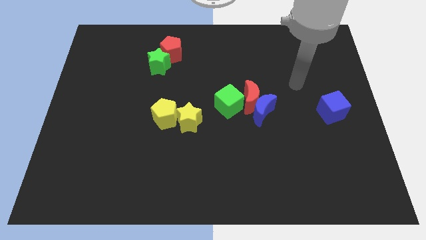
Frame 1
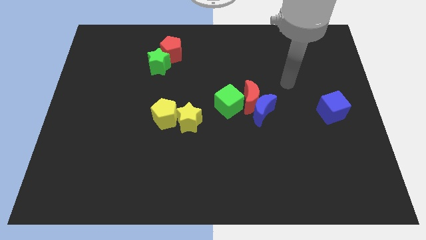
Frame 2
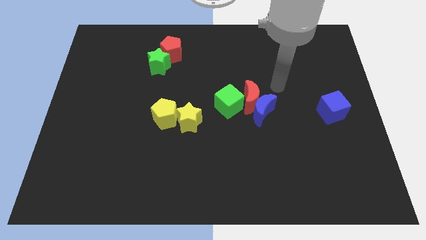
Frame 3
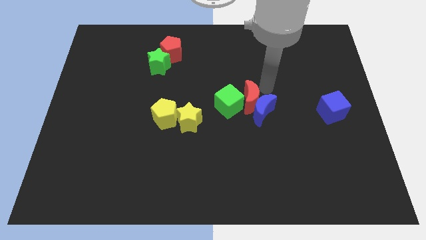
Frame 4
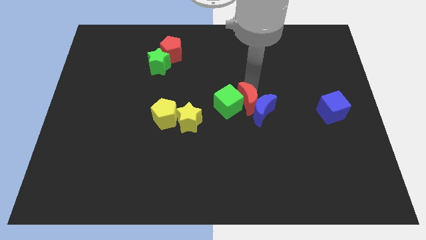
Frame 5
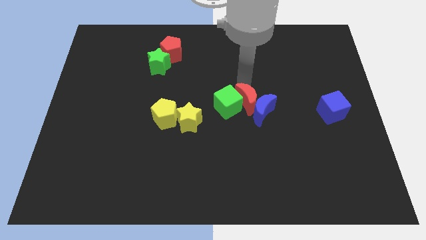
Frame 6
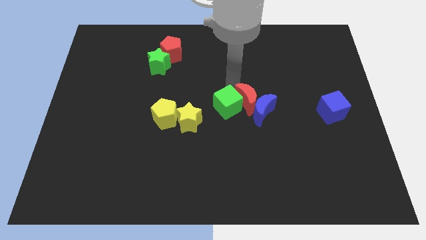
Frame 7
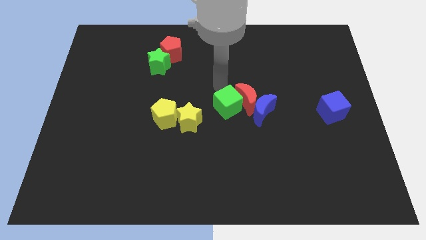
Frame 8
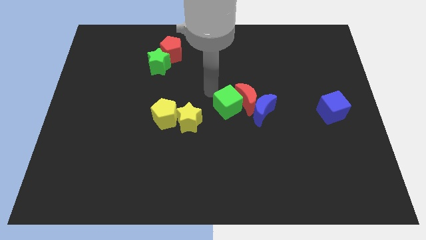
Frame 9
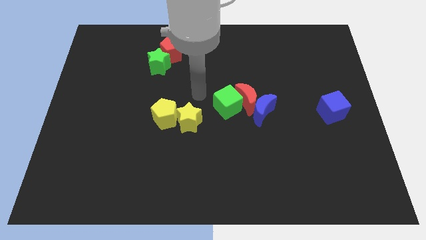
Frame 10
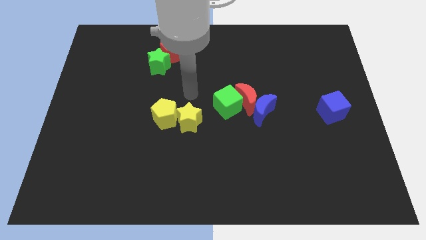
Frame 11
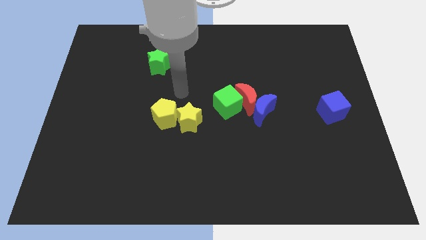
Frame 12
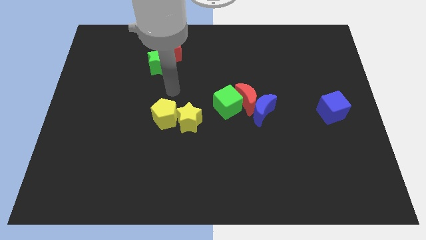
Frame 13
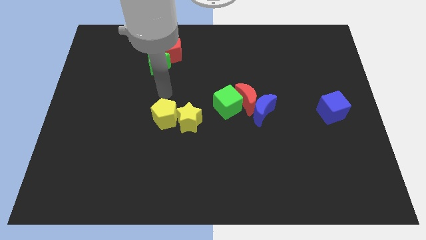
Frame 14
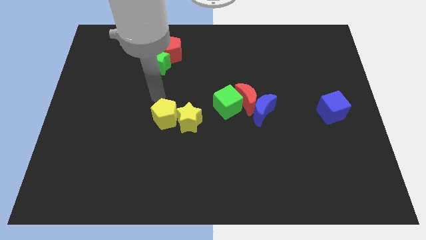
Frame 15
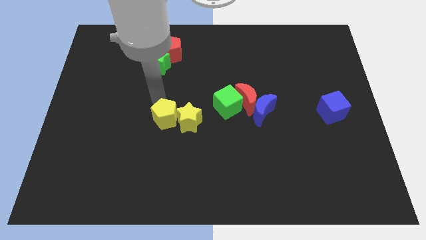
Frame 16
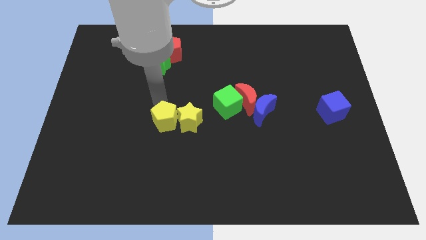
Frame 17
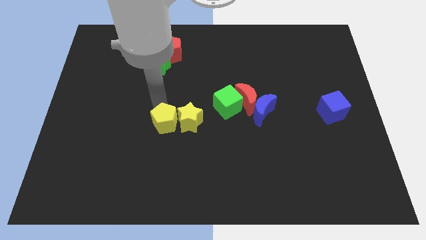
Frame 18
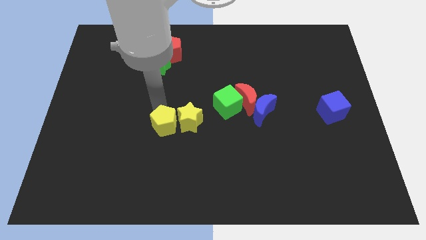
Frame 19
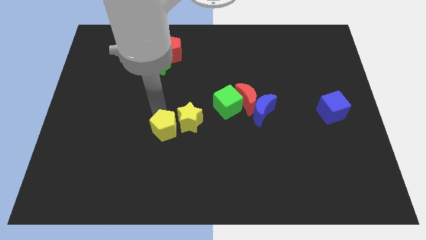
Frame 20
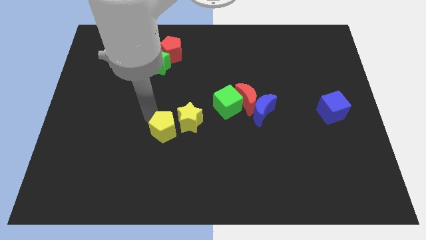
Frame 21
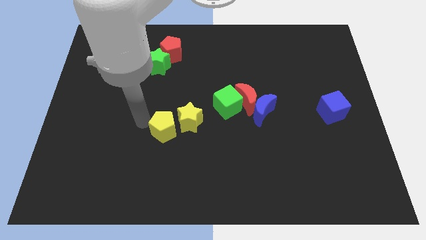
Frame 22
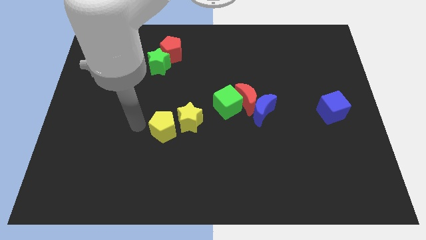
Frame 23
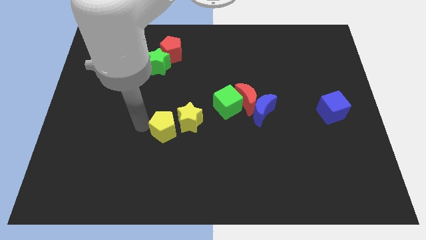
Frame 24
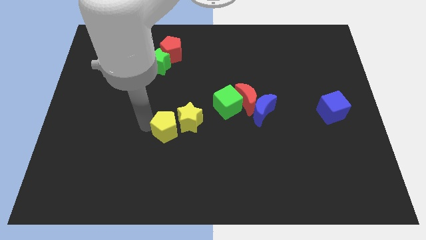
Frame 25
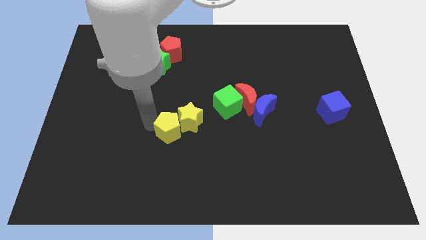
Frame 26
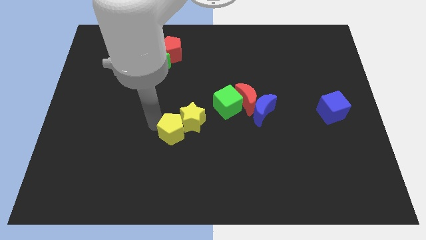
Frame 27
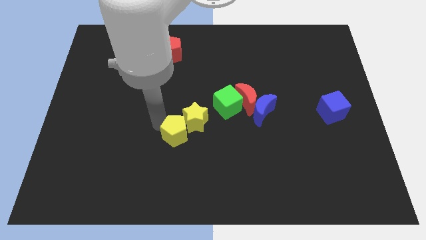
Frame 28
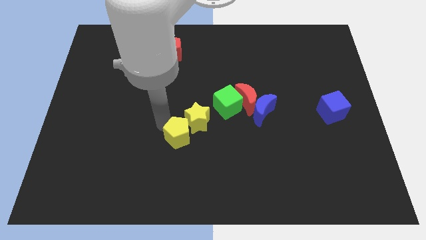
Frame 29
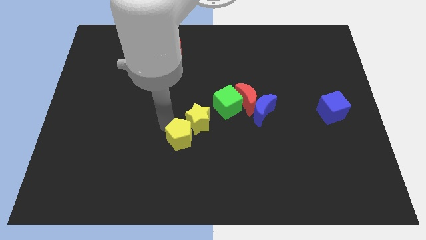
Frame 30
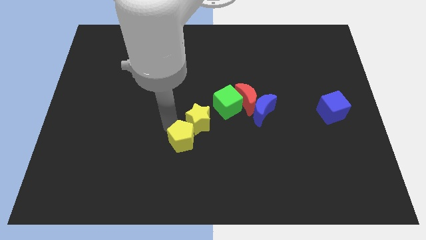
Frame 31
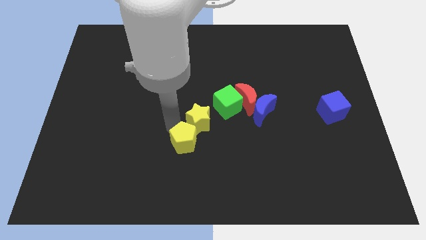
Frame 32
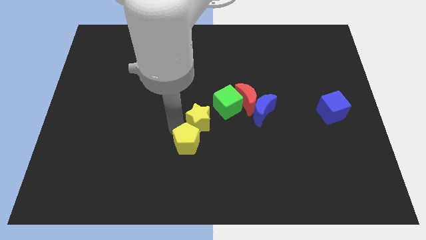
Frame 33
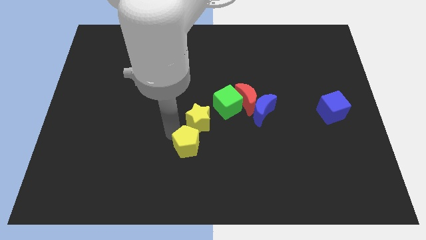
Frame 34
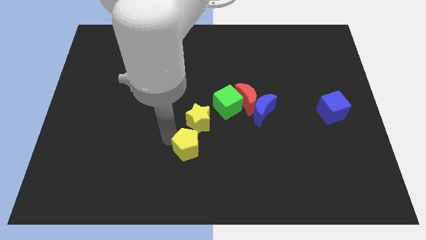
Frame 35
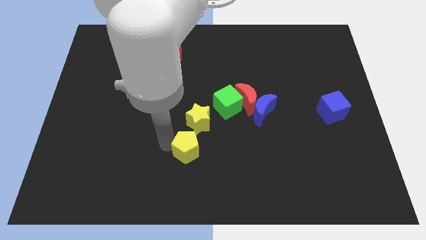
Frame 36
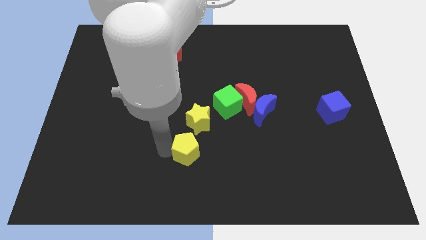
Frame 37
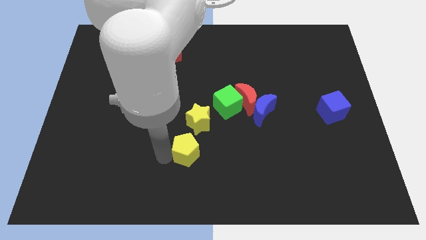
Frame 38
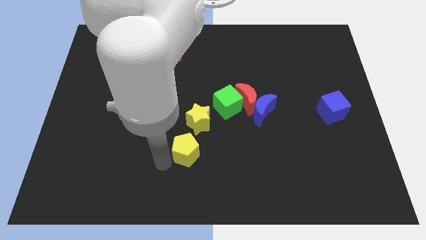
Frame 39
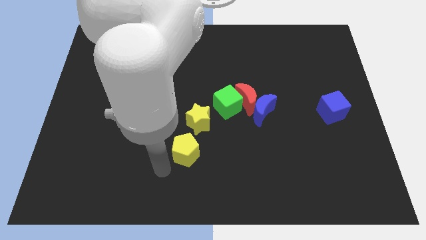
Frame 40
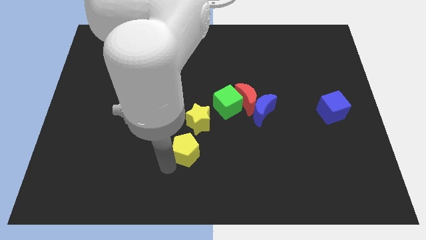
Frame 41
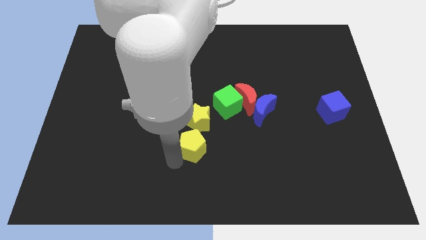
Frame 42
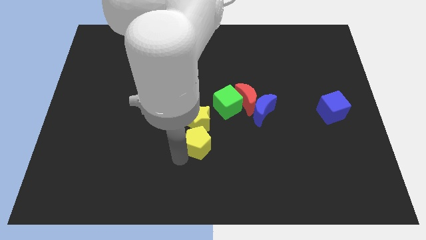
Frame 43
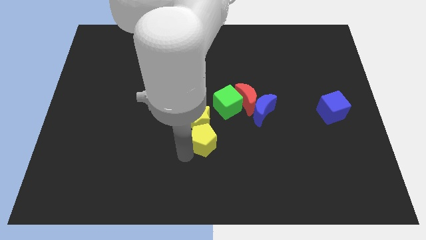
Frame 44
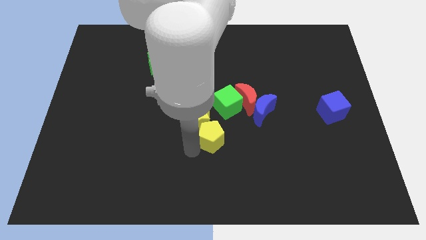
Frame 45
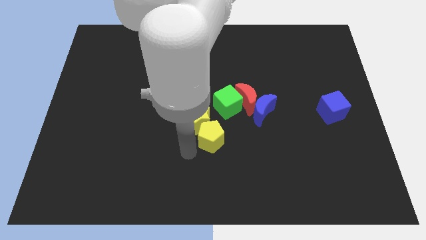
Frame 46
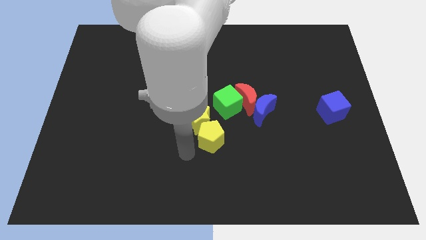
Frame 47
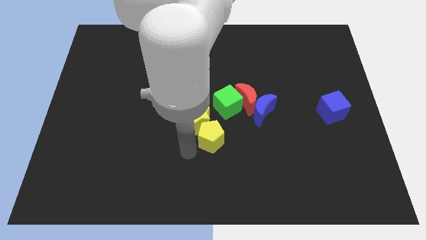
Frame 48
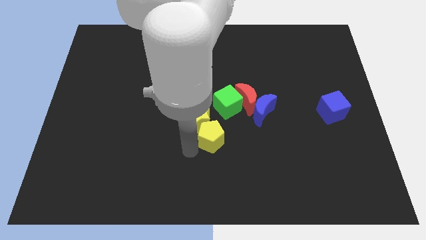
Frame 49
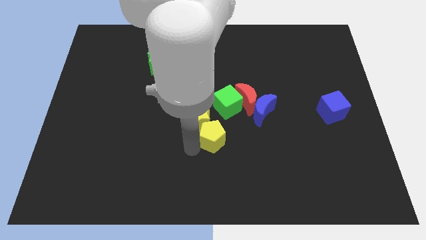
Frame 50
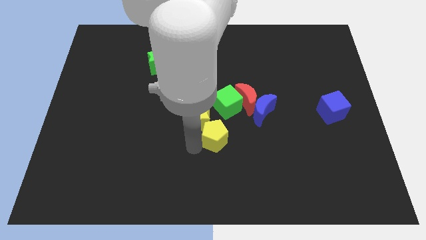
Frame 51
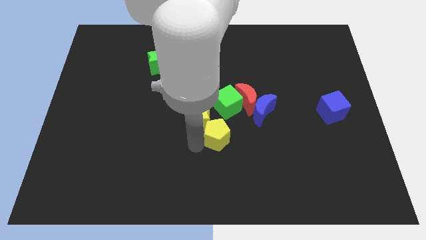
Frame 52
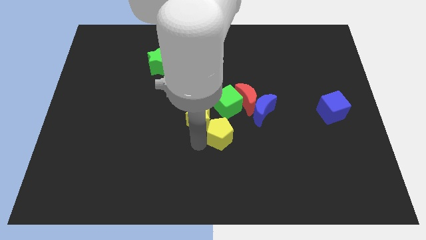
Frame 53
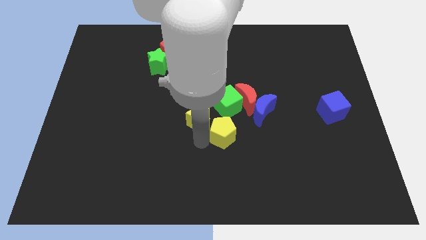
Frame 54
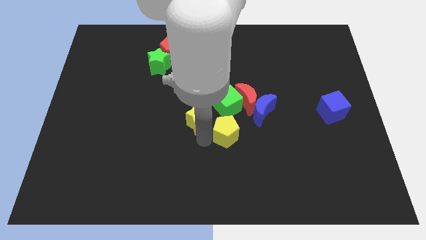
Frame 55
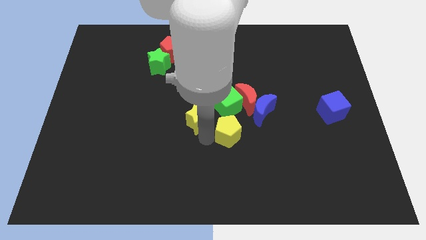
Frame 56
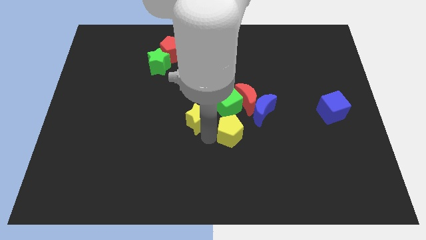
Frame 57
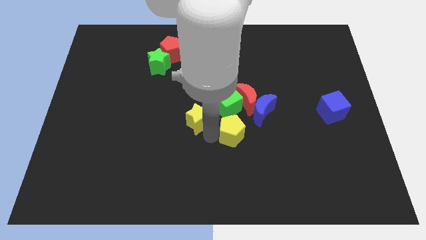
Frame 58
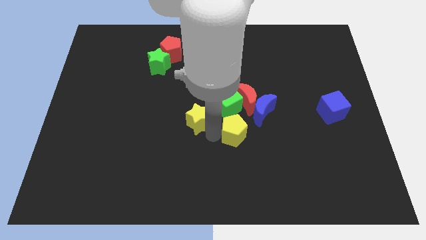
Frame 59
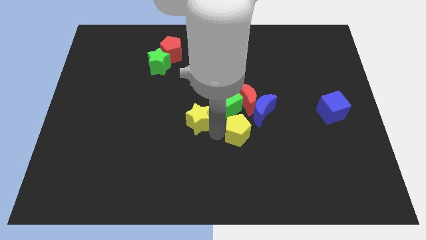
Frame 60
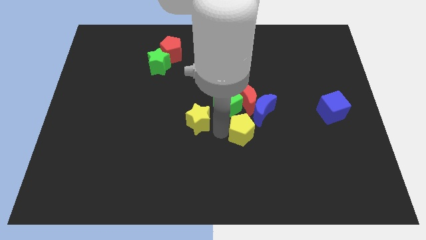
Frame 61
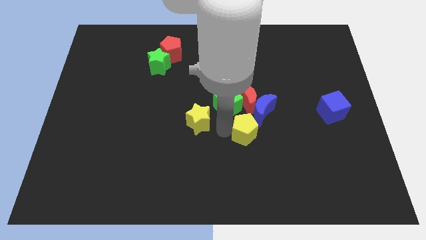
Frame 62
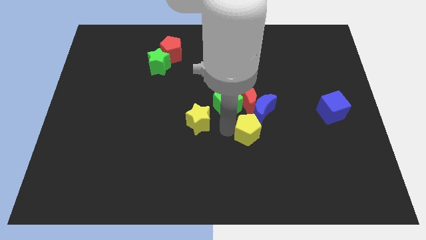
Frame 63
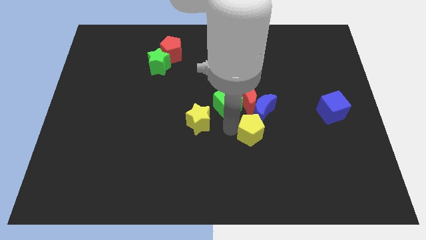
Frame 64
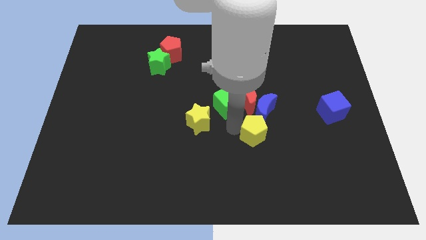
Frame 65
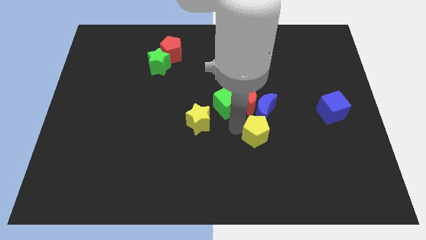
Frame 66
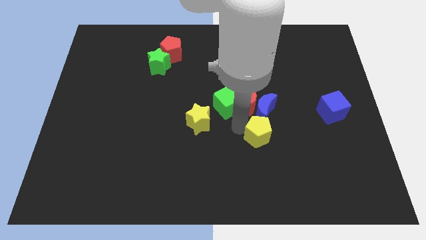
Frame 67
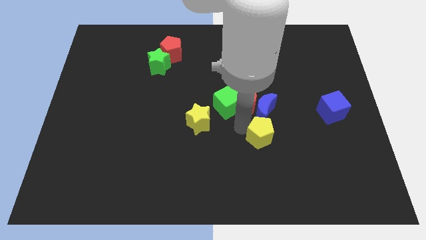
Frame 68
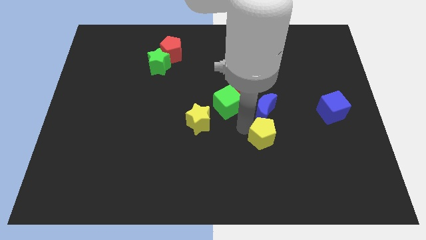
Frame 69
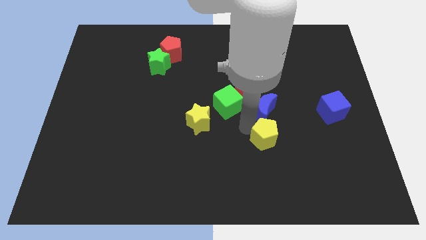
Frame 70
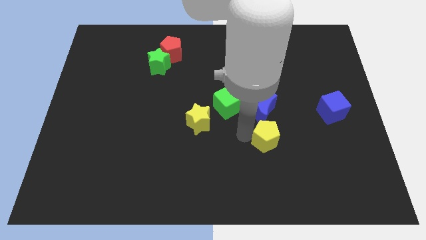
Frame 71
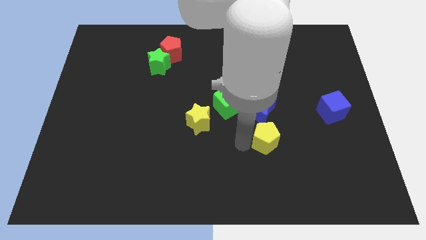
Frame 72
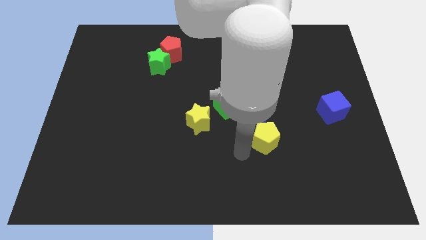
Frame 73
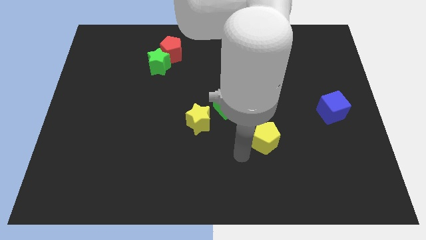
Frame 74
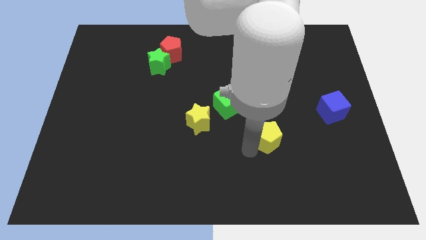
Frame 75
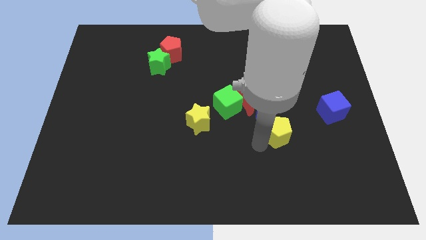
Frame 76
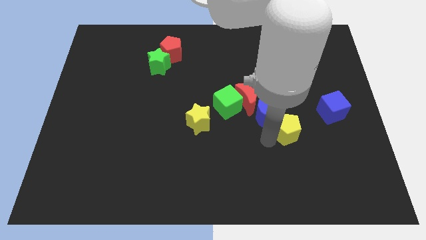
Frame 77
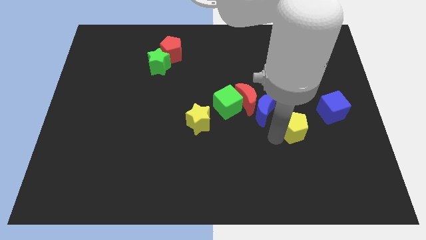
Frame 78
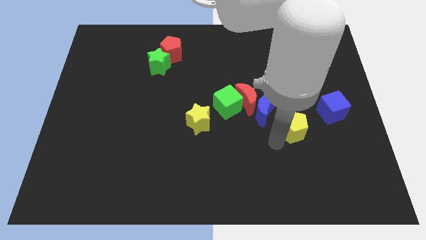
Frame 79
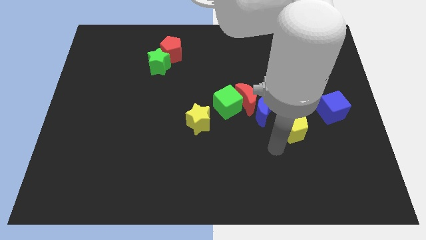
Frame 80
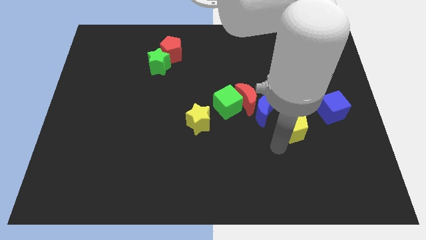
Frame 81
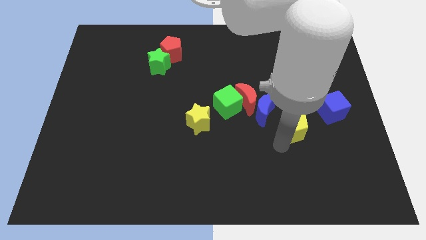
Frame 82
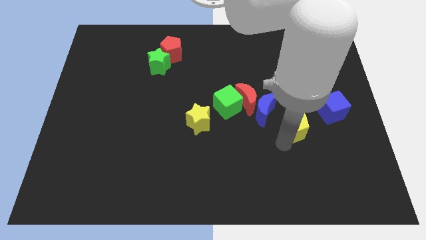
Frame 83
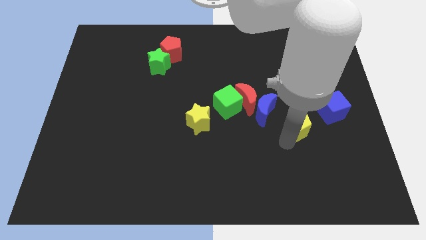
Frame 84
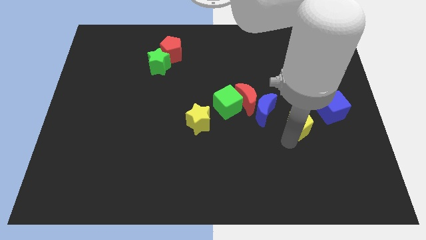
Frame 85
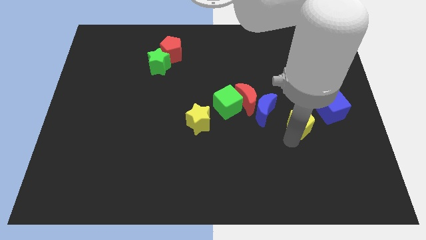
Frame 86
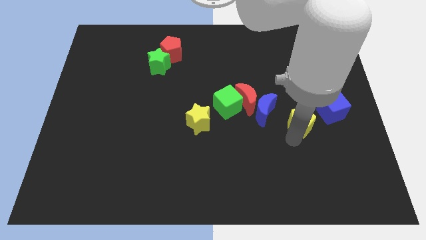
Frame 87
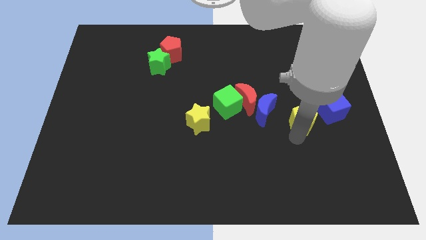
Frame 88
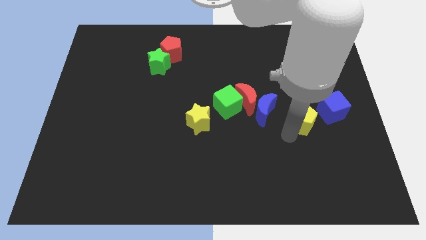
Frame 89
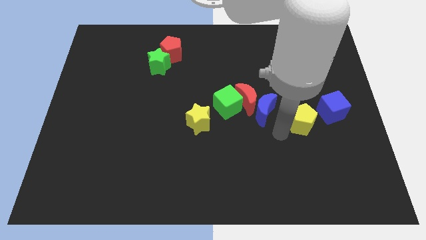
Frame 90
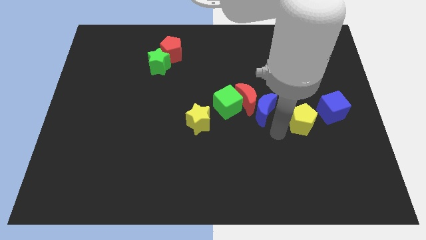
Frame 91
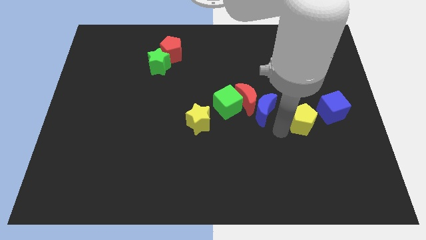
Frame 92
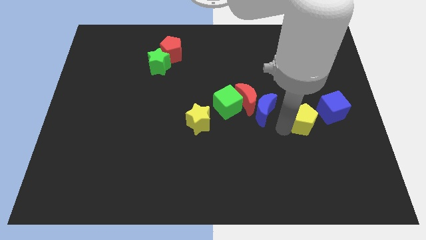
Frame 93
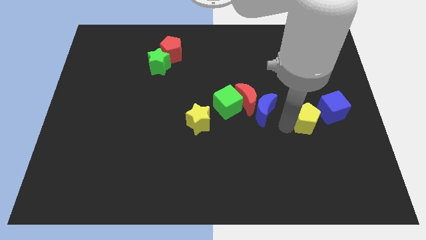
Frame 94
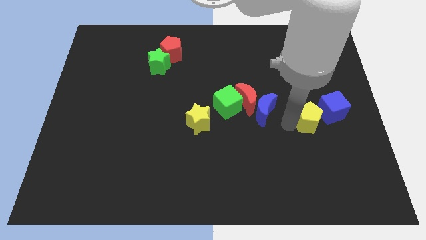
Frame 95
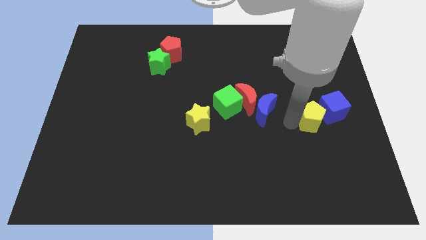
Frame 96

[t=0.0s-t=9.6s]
slide the yellow pentagon to the blue cube
